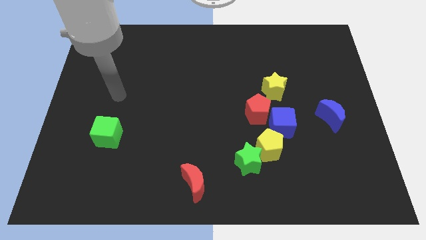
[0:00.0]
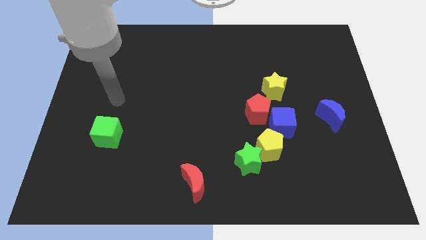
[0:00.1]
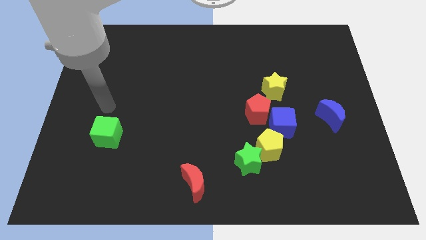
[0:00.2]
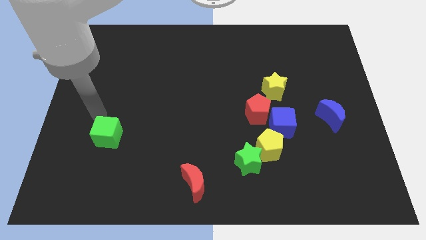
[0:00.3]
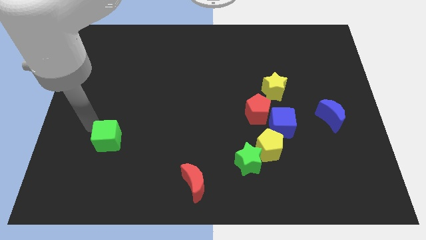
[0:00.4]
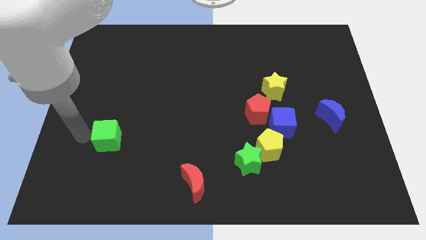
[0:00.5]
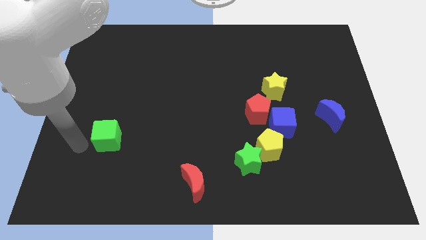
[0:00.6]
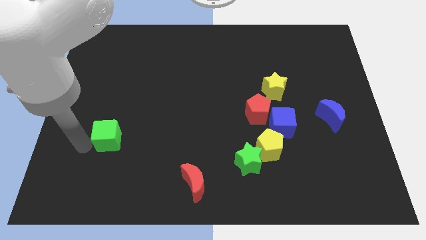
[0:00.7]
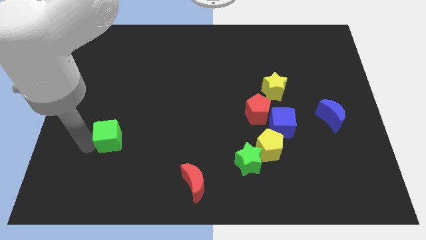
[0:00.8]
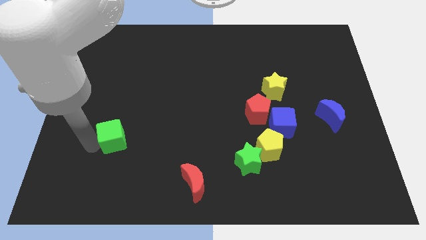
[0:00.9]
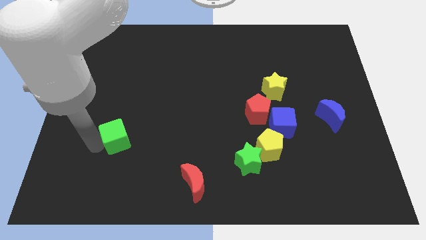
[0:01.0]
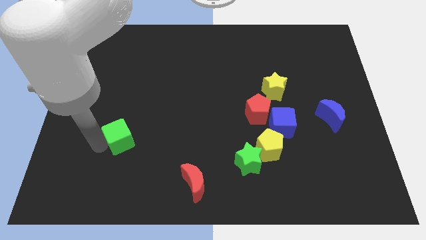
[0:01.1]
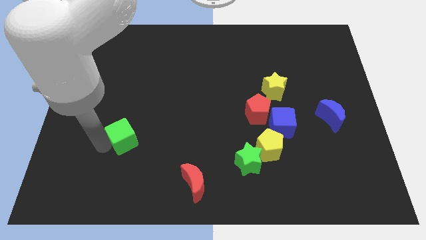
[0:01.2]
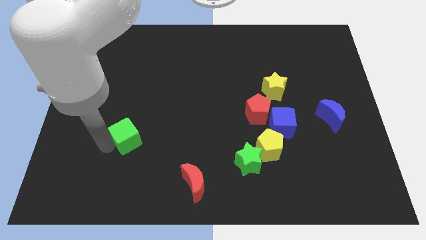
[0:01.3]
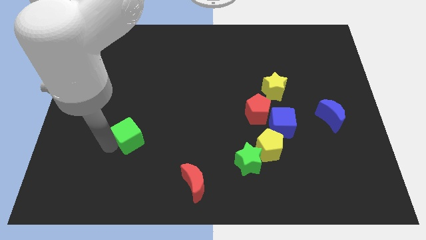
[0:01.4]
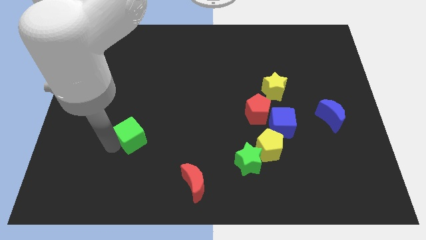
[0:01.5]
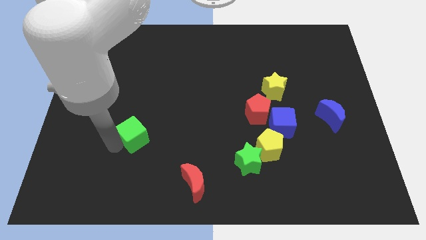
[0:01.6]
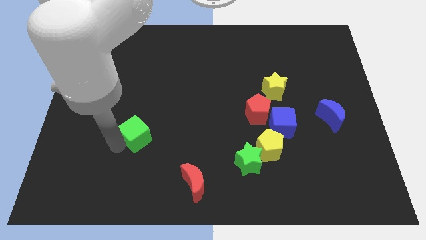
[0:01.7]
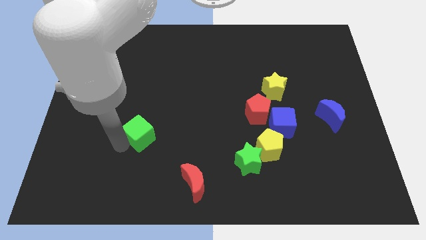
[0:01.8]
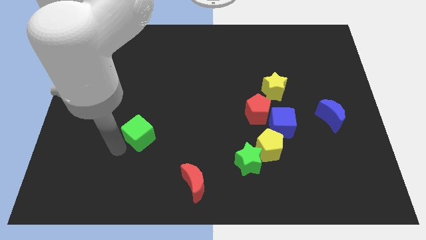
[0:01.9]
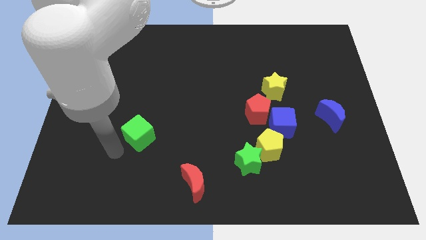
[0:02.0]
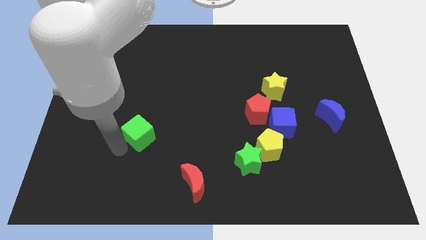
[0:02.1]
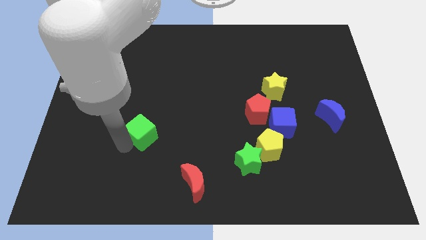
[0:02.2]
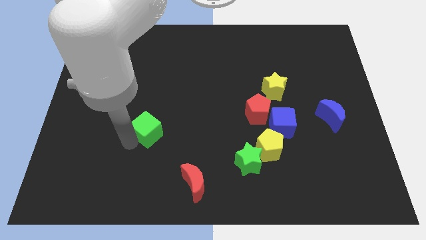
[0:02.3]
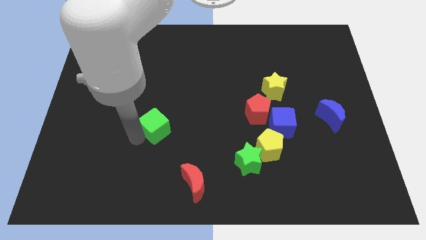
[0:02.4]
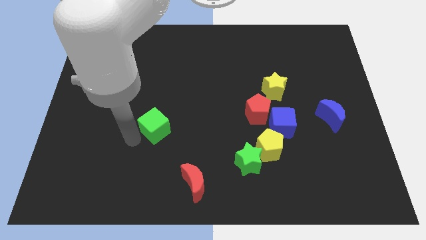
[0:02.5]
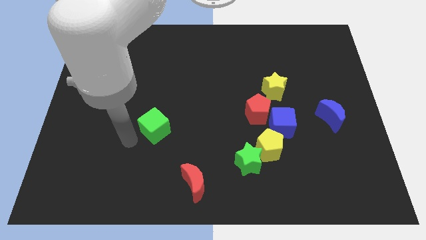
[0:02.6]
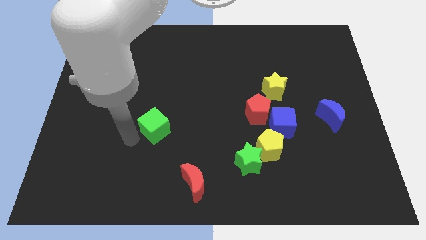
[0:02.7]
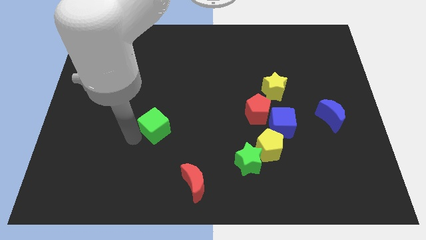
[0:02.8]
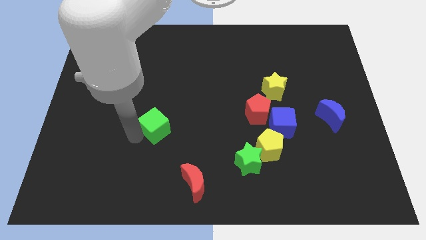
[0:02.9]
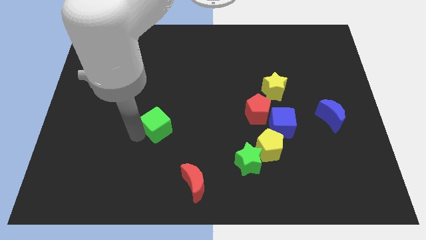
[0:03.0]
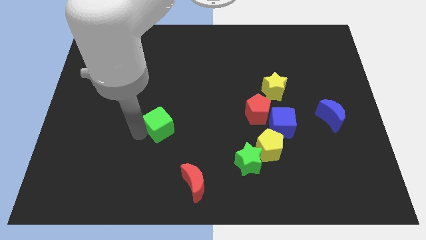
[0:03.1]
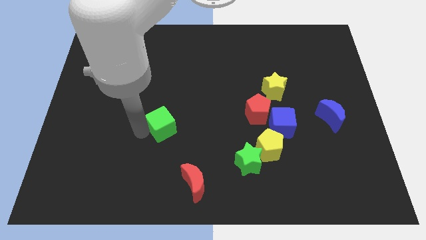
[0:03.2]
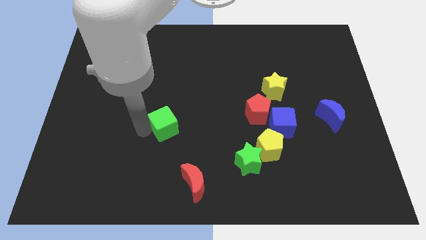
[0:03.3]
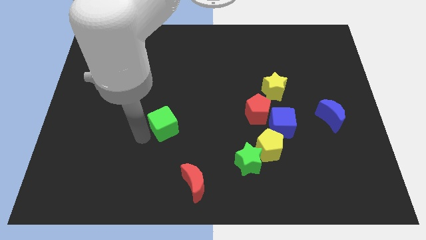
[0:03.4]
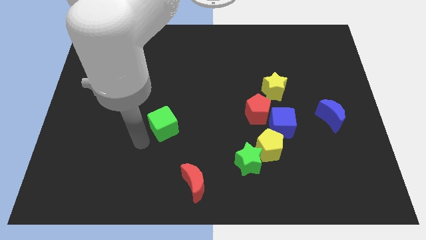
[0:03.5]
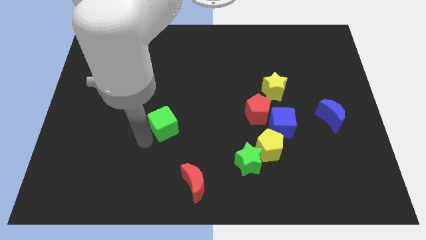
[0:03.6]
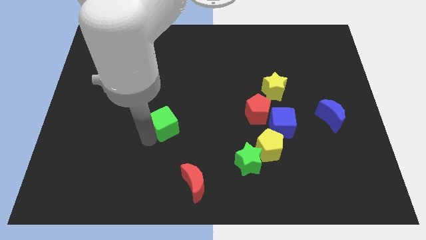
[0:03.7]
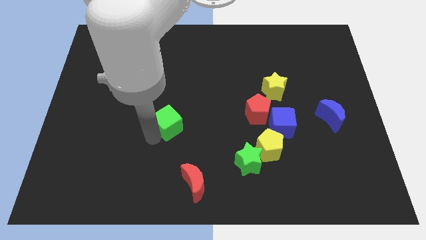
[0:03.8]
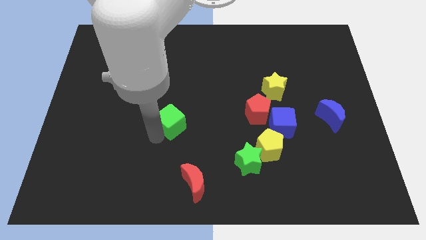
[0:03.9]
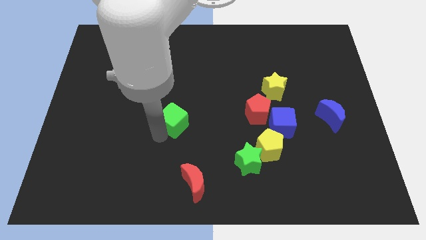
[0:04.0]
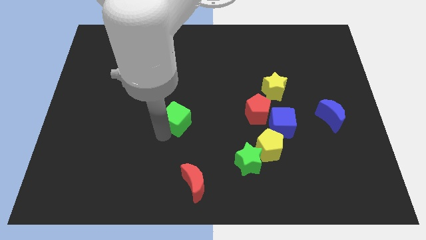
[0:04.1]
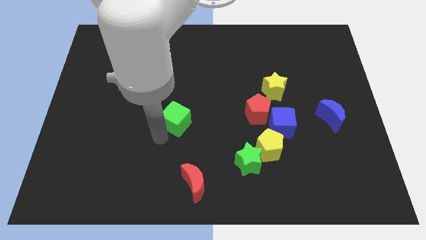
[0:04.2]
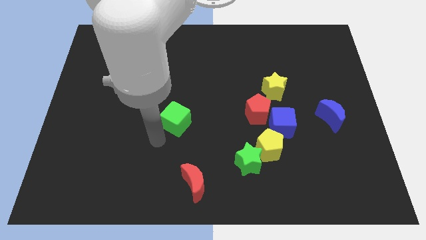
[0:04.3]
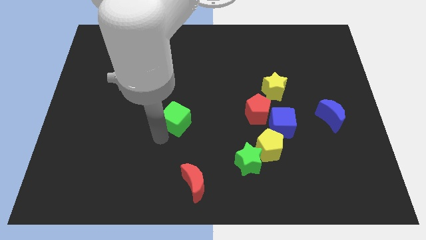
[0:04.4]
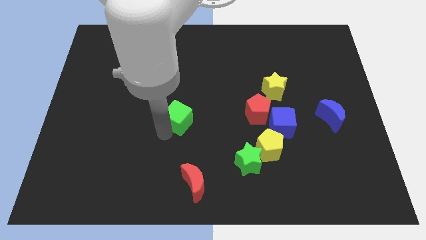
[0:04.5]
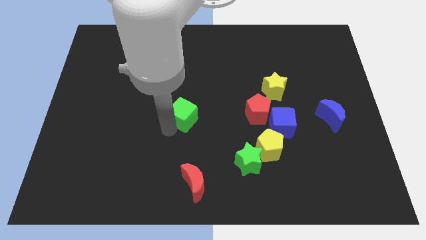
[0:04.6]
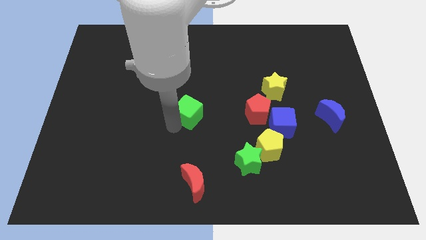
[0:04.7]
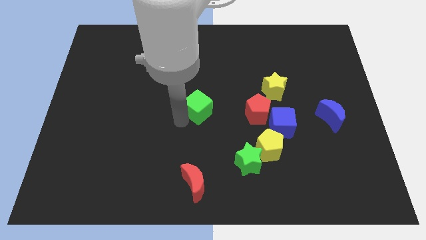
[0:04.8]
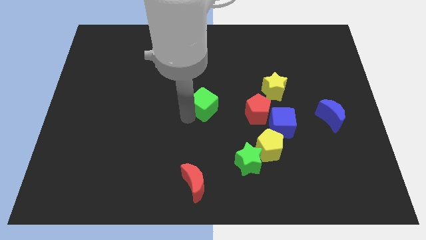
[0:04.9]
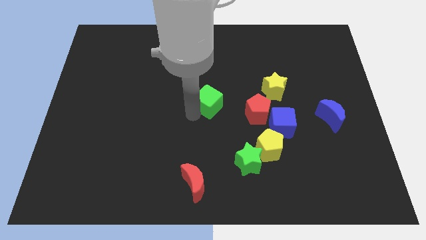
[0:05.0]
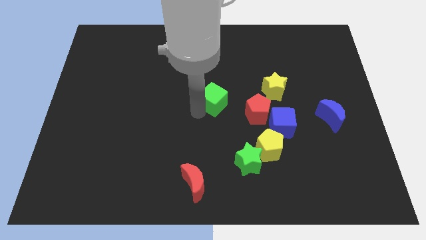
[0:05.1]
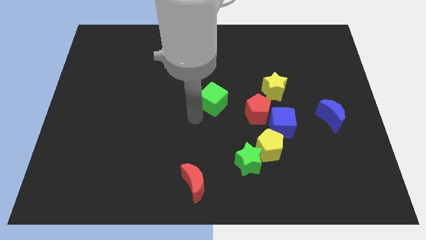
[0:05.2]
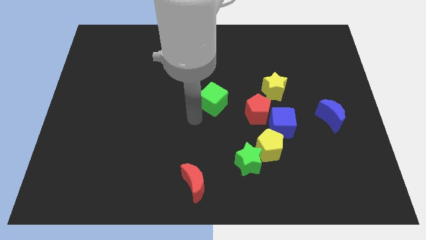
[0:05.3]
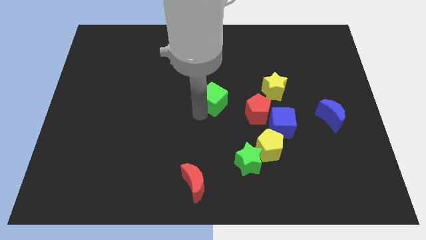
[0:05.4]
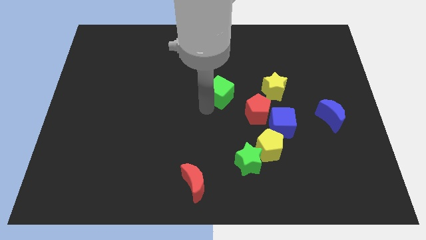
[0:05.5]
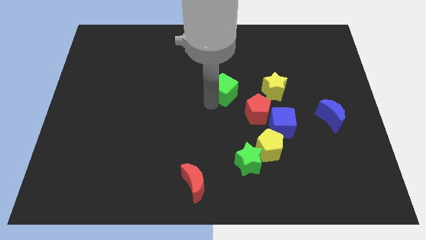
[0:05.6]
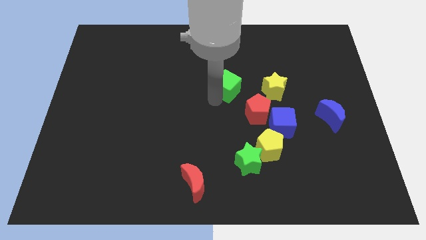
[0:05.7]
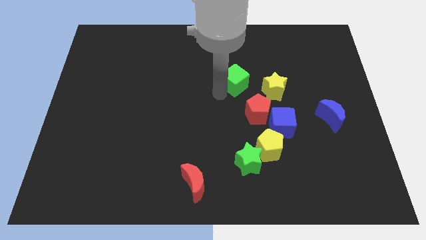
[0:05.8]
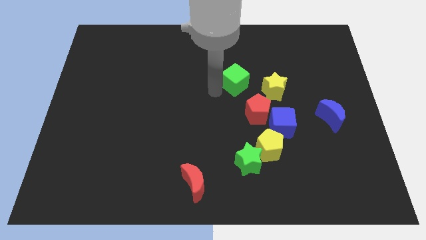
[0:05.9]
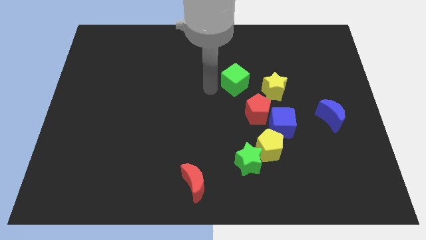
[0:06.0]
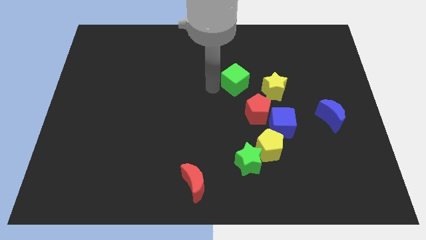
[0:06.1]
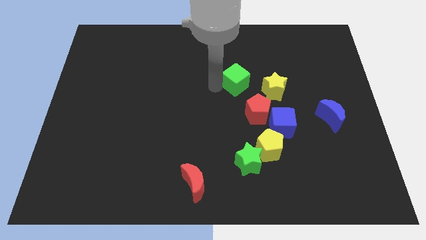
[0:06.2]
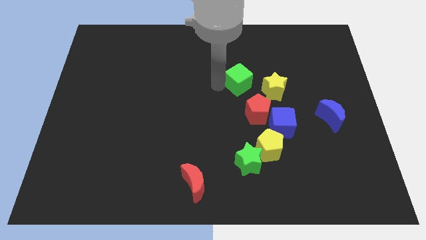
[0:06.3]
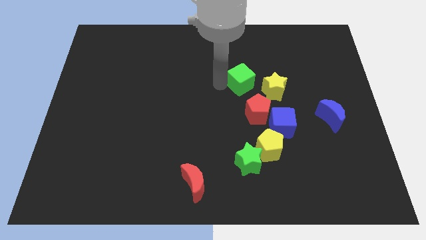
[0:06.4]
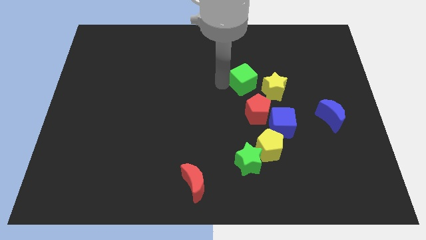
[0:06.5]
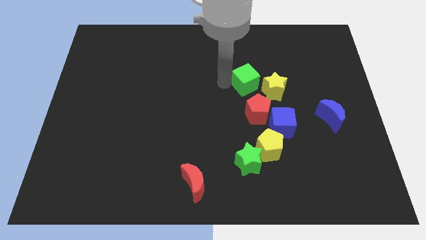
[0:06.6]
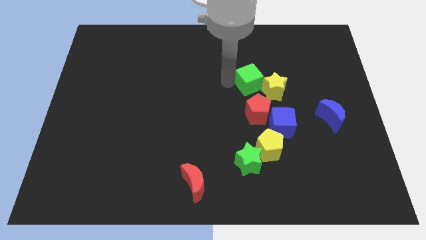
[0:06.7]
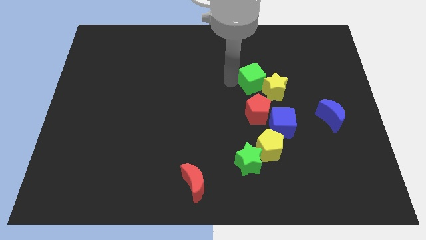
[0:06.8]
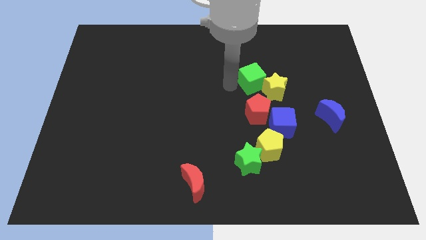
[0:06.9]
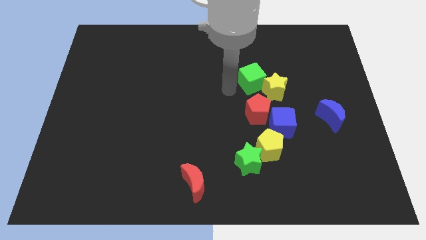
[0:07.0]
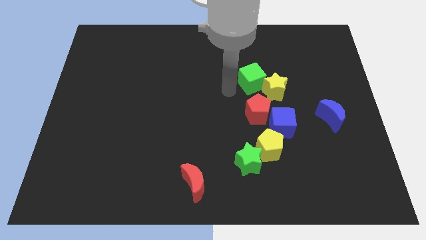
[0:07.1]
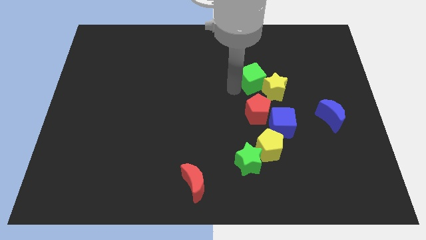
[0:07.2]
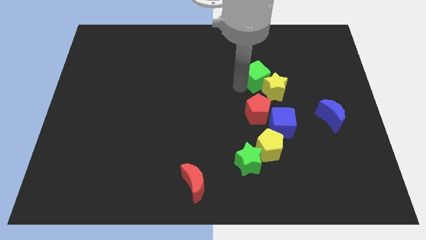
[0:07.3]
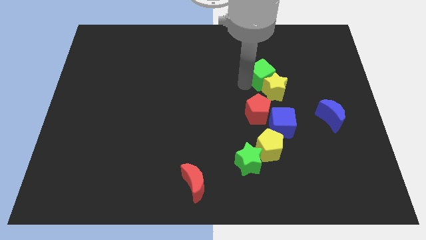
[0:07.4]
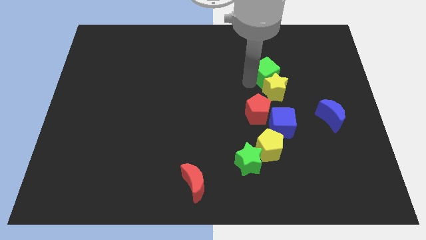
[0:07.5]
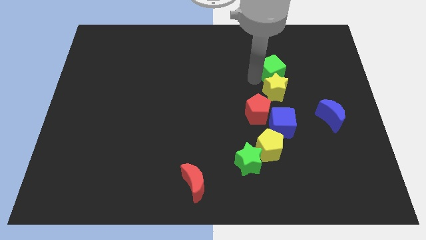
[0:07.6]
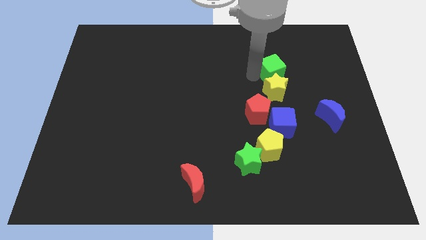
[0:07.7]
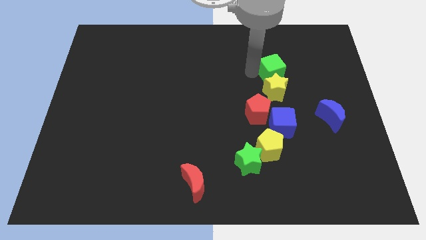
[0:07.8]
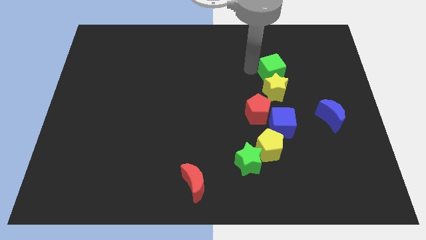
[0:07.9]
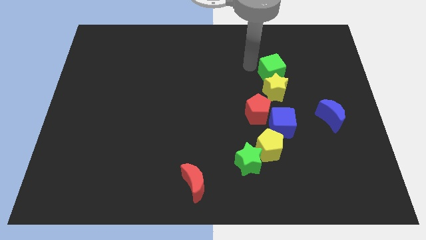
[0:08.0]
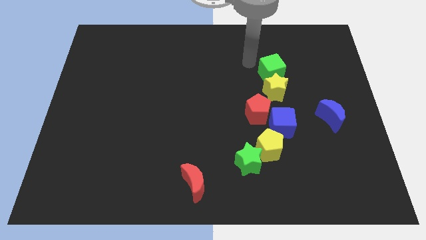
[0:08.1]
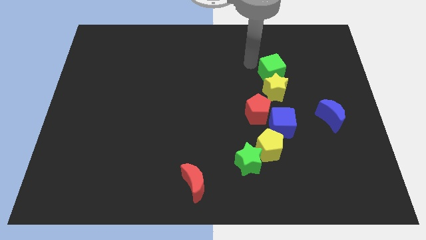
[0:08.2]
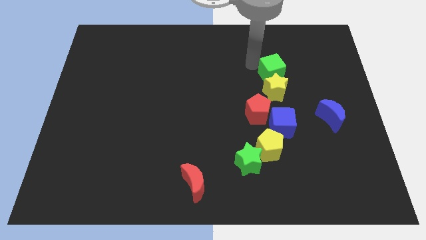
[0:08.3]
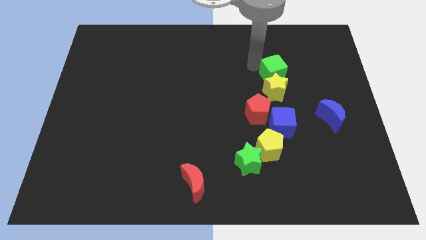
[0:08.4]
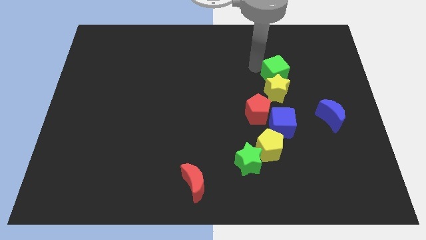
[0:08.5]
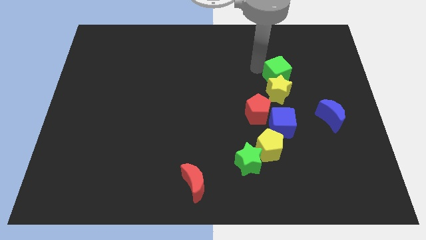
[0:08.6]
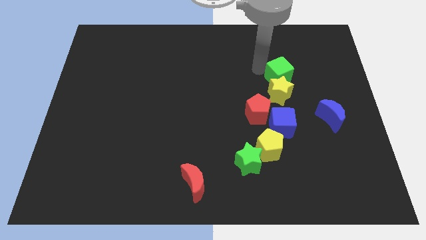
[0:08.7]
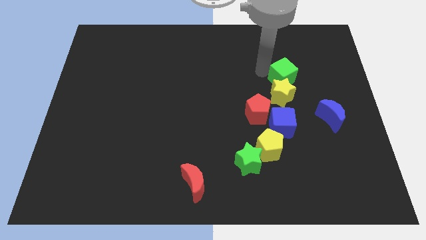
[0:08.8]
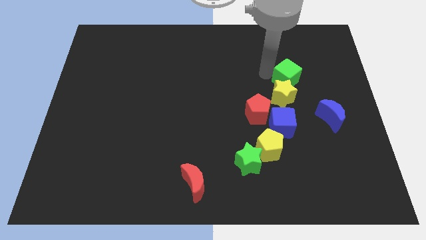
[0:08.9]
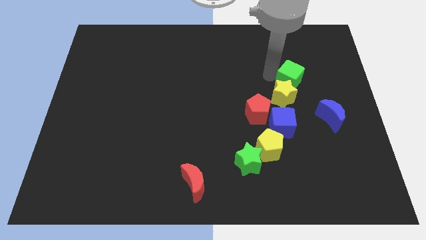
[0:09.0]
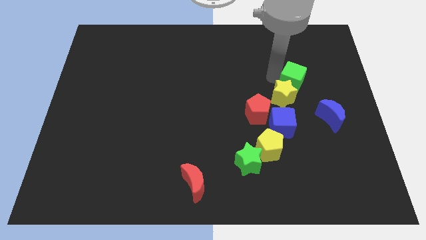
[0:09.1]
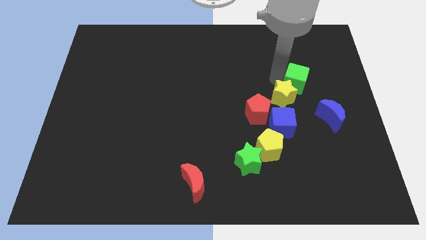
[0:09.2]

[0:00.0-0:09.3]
move the green cube to the right side of the yellow star
